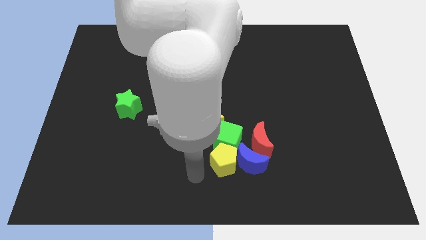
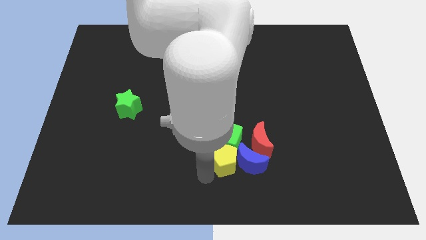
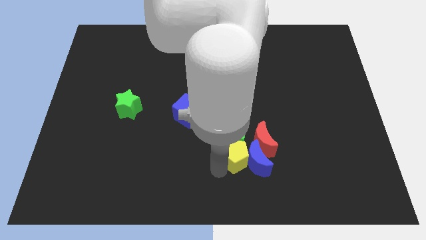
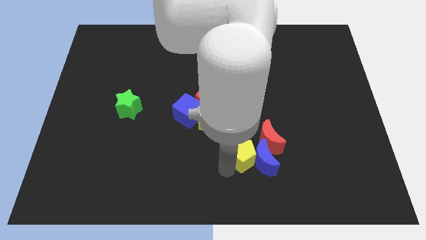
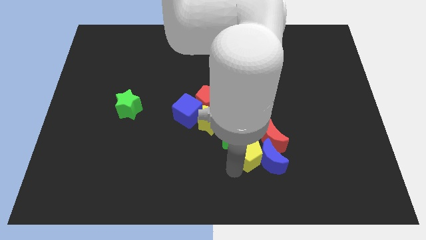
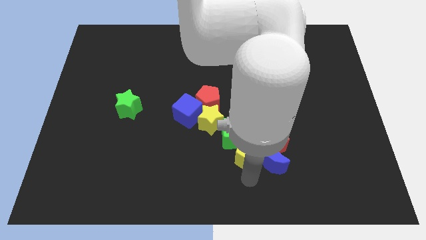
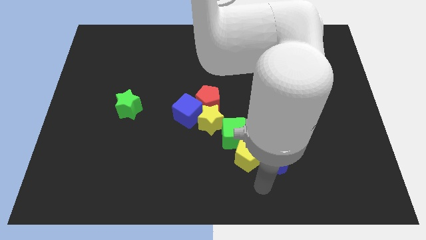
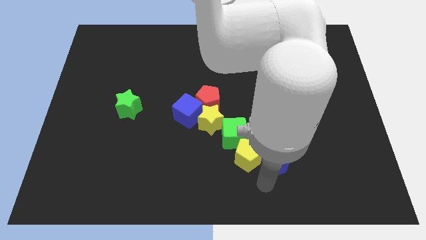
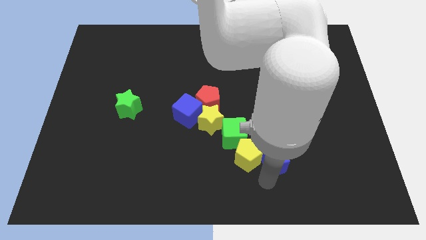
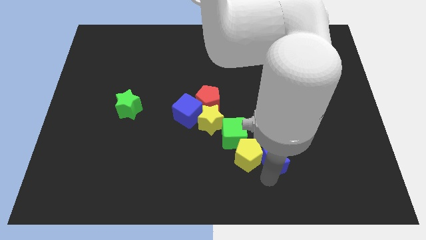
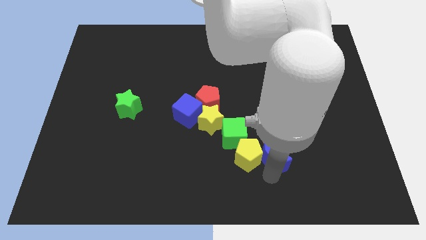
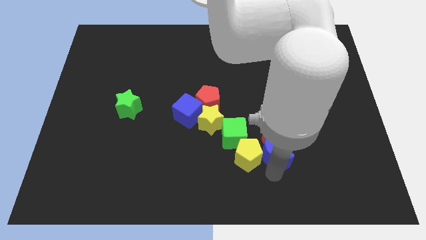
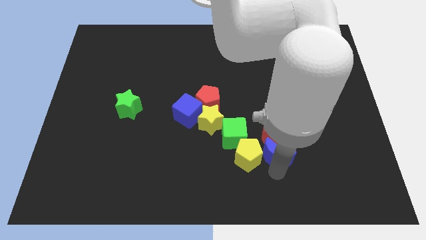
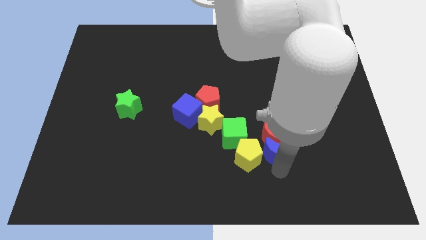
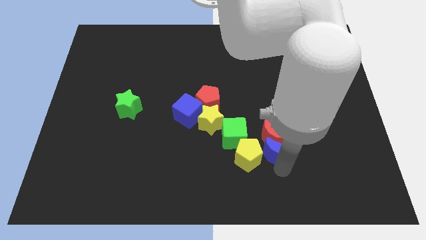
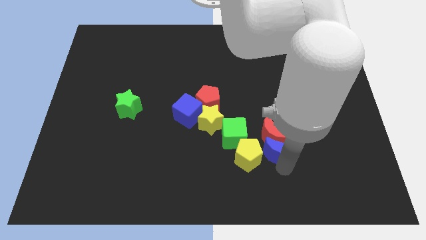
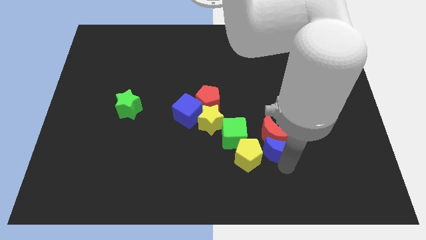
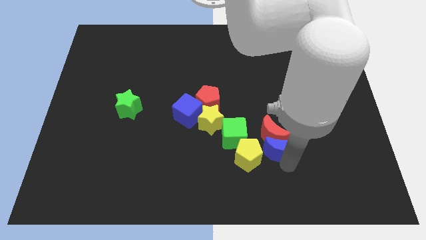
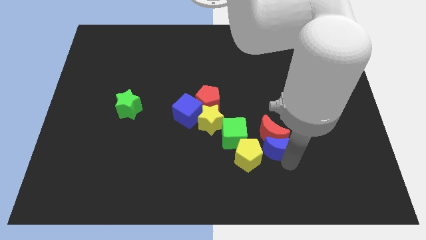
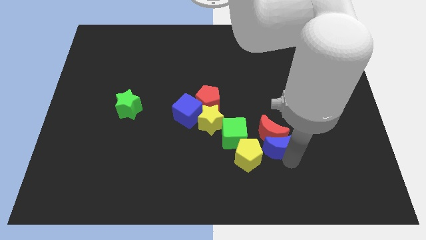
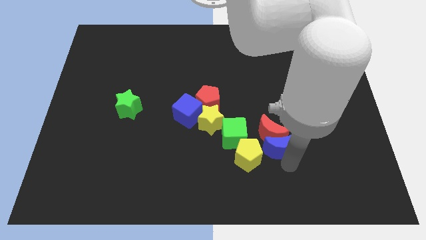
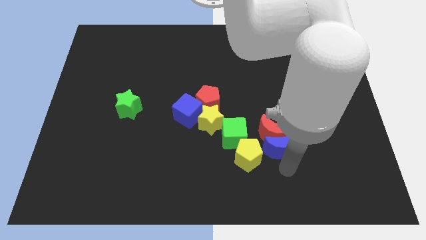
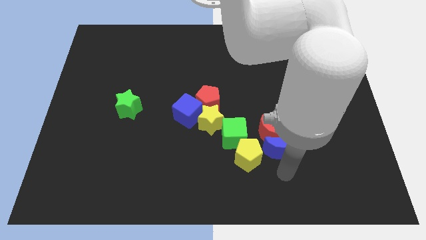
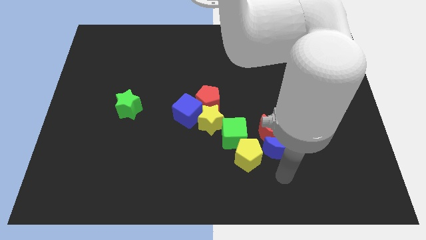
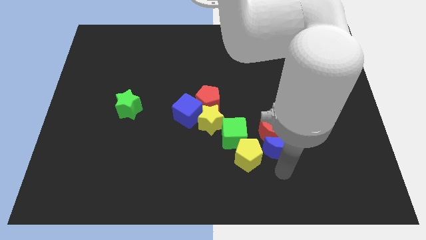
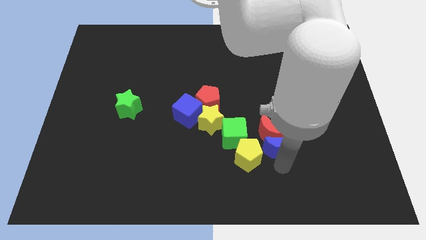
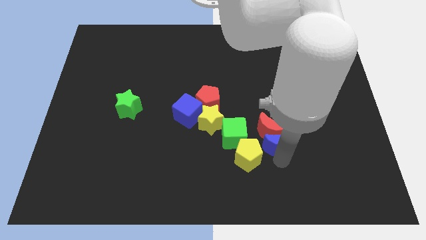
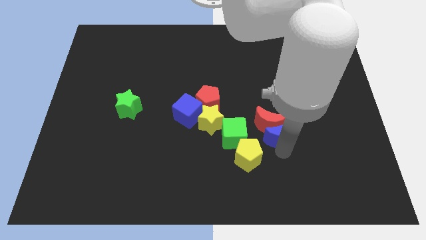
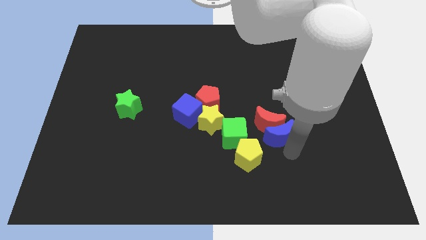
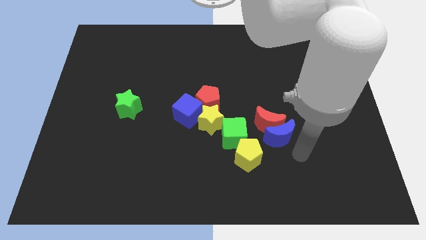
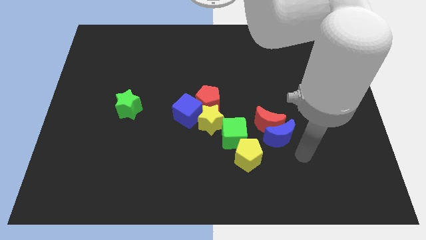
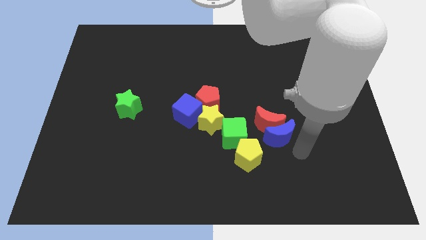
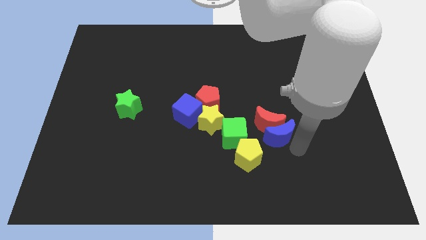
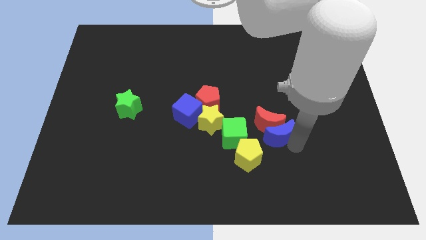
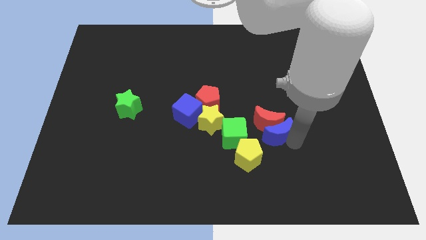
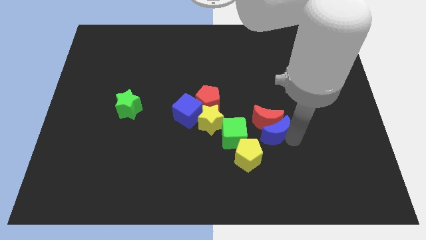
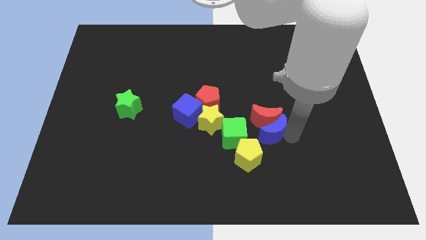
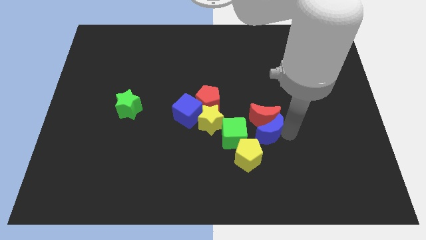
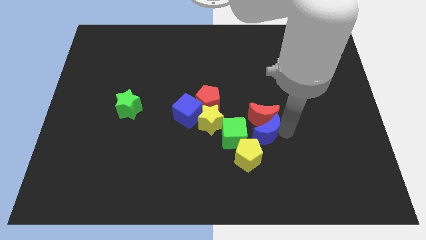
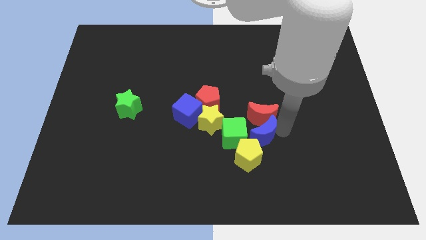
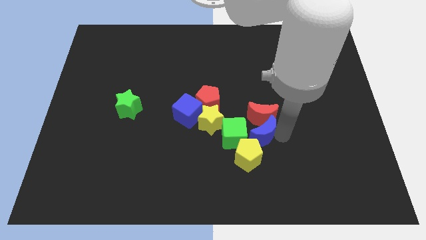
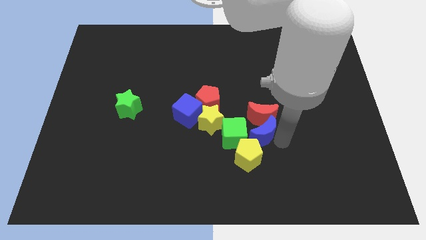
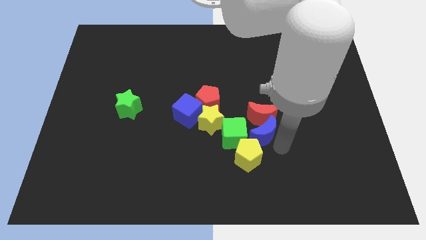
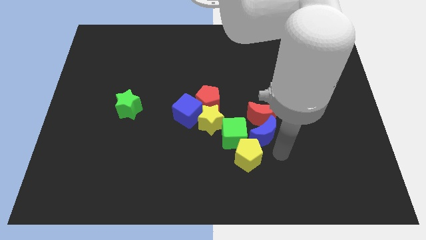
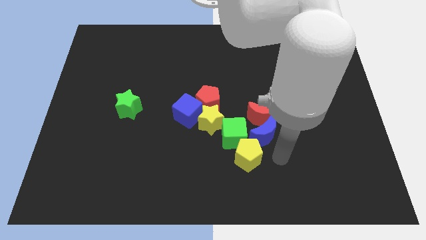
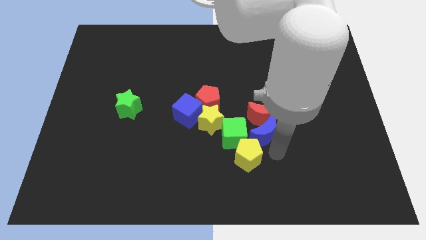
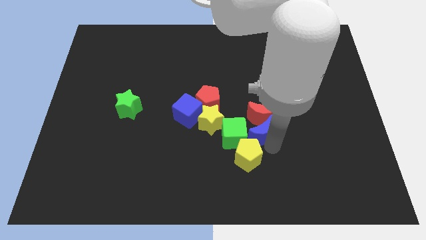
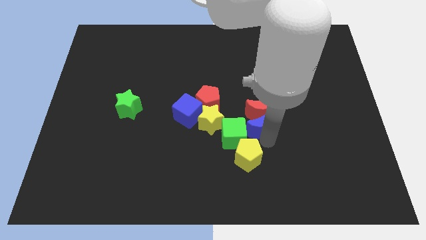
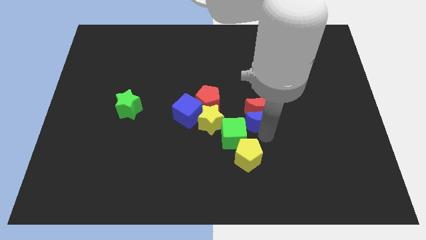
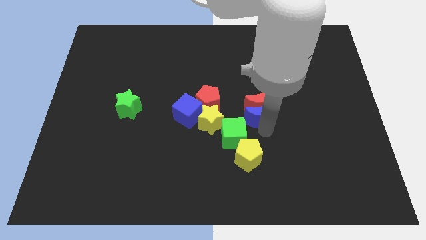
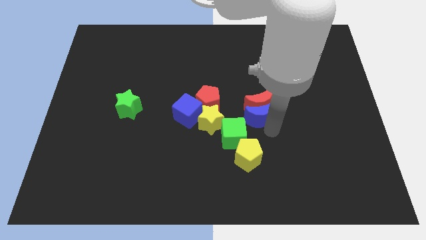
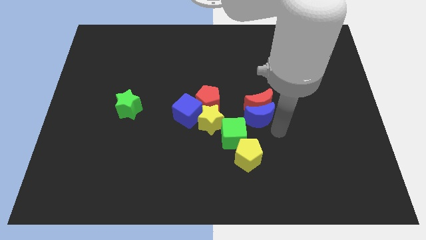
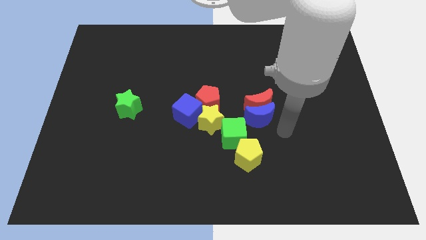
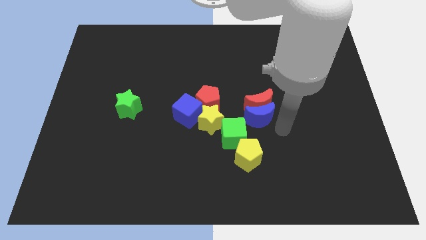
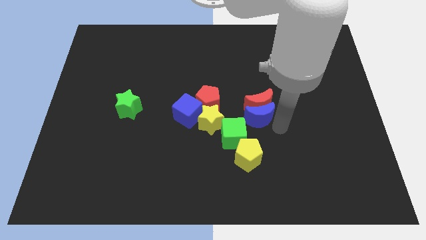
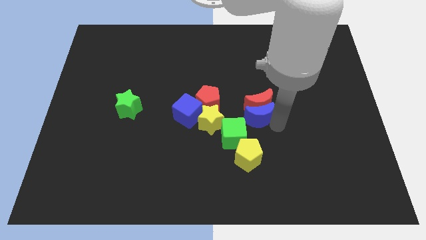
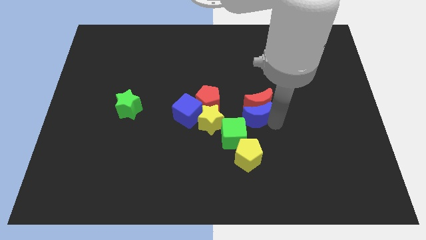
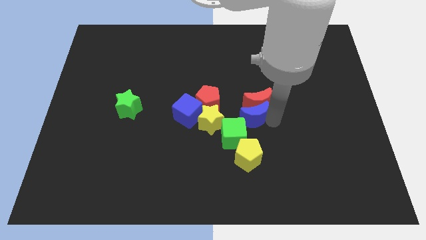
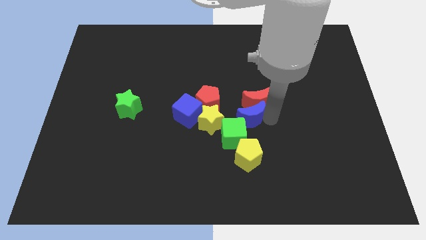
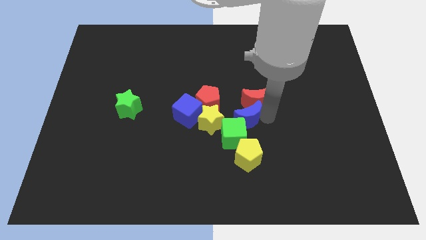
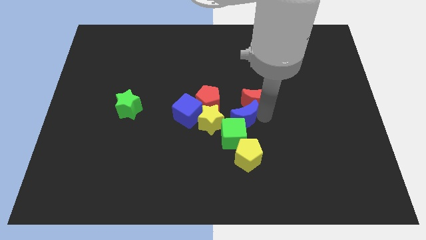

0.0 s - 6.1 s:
move the blue moon to the top right of the yellow star

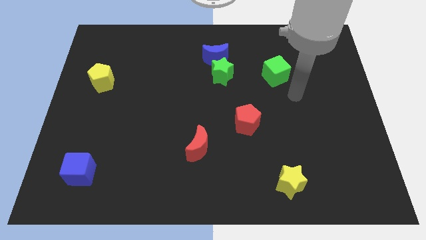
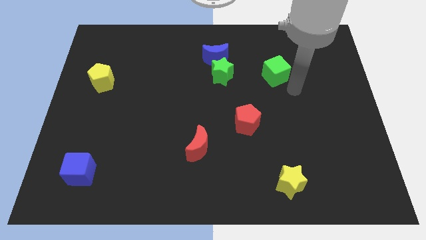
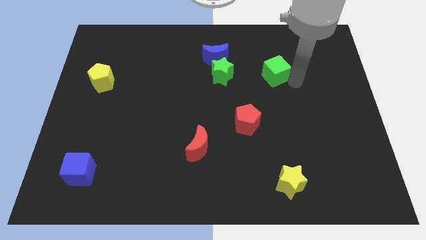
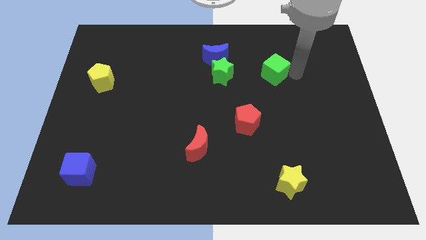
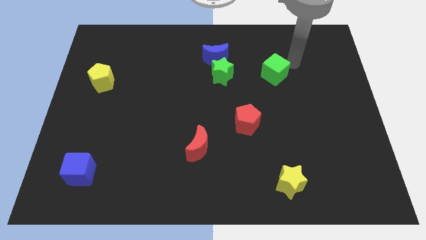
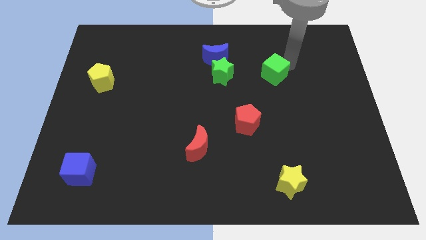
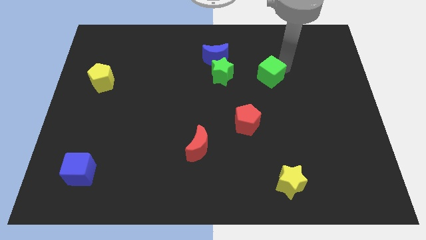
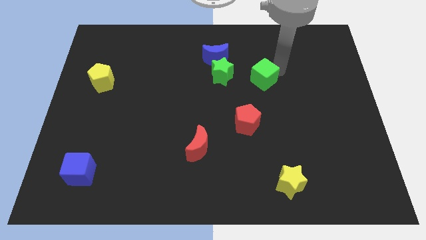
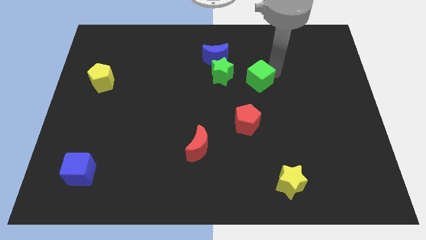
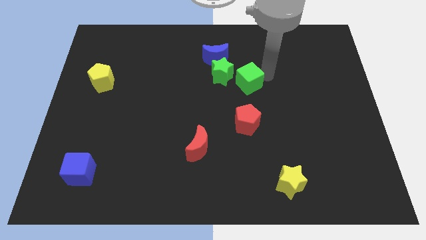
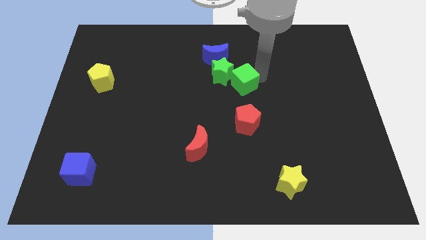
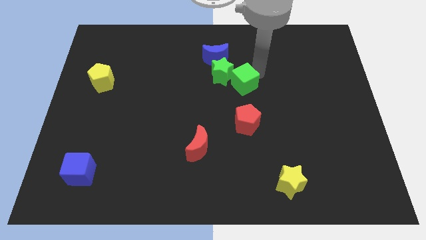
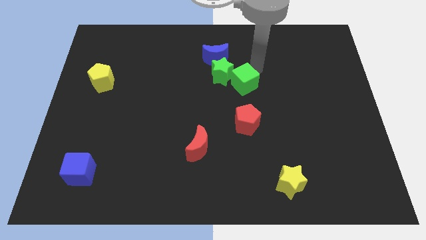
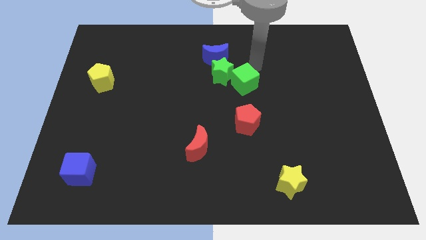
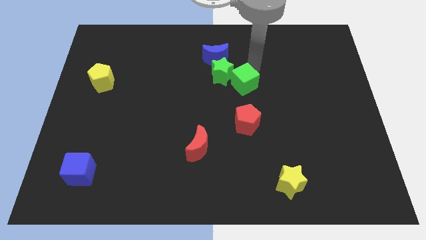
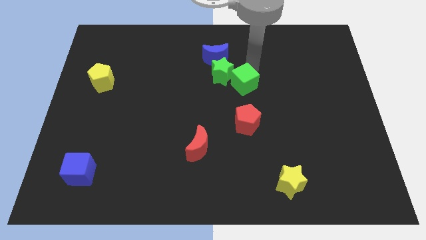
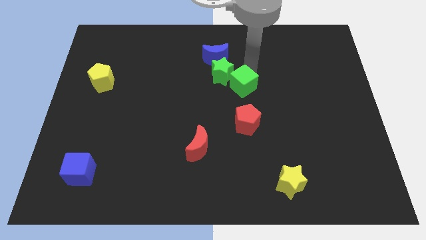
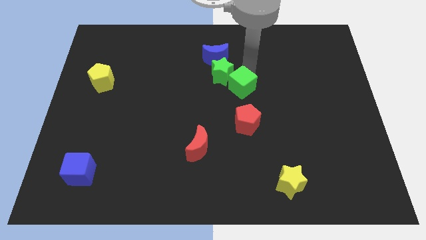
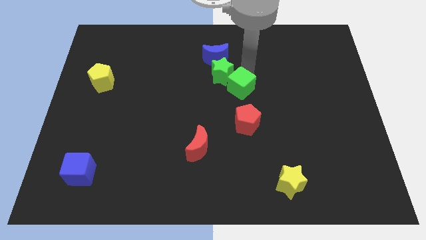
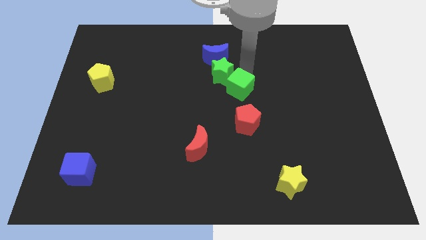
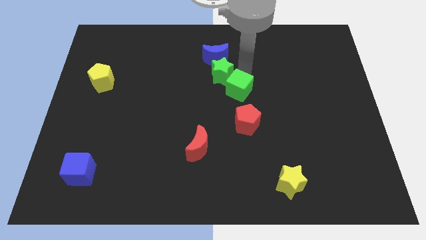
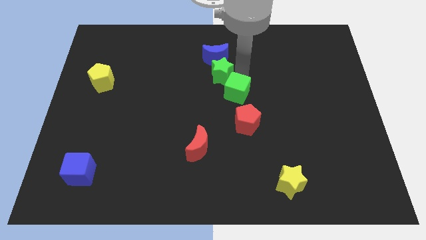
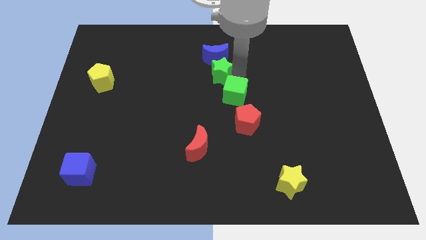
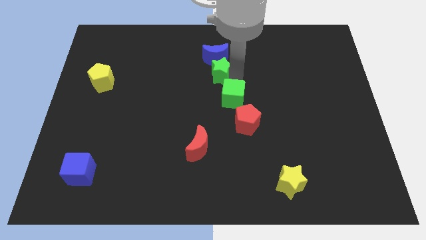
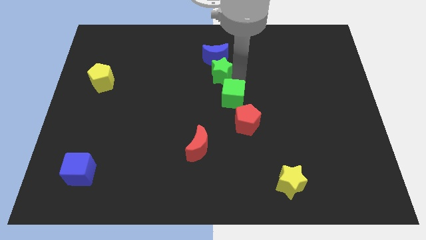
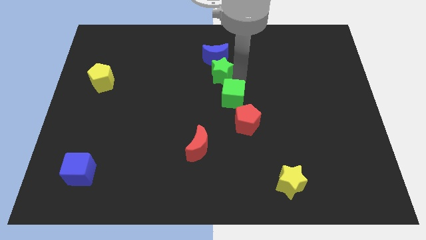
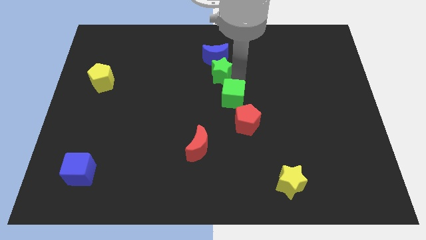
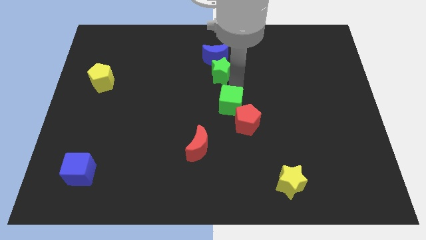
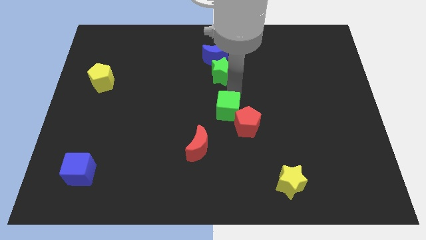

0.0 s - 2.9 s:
push the green cube diagonally up and to the right of the red moon
